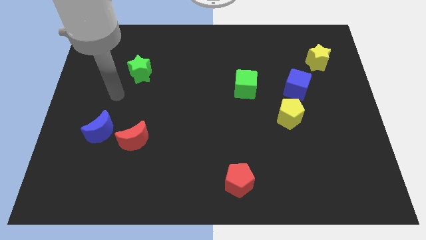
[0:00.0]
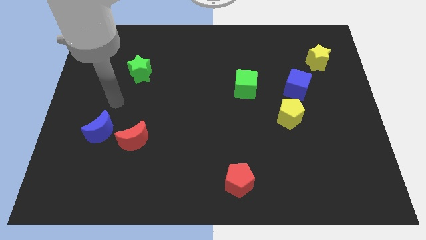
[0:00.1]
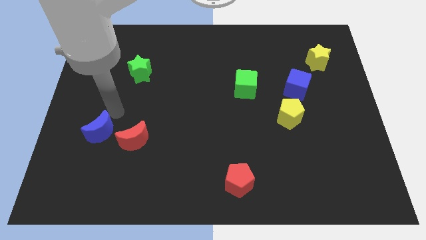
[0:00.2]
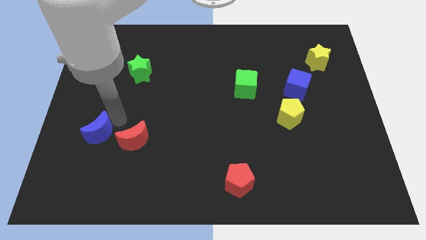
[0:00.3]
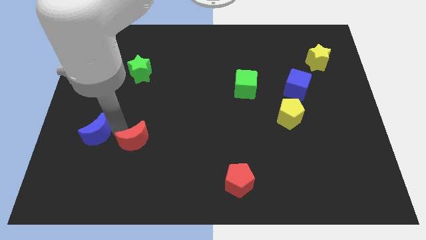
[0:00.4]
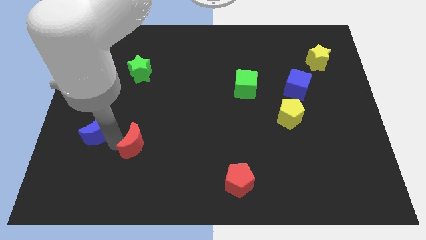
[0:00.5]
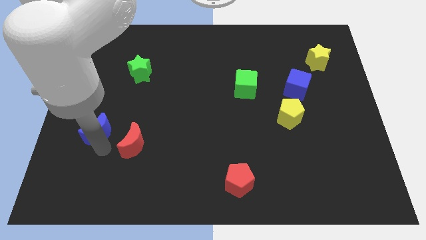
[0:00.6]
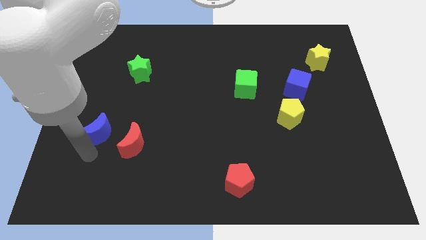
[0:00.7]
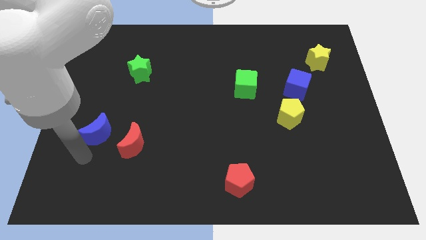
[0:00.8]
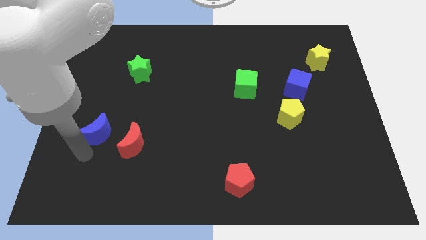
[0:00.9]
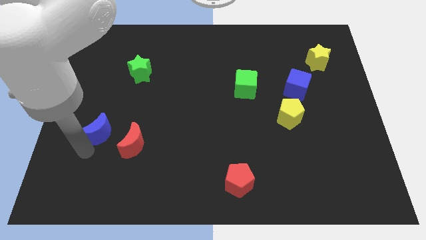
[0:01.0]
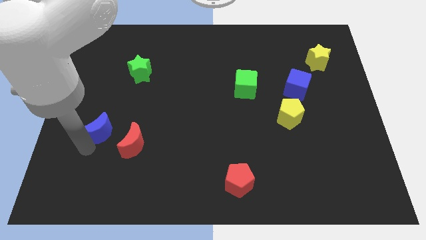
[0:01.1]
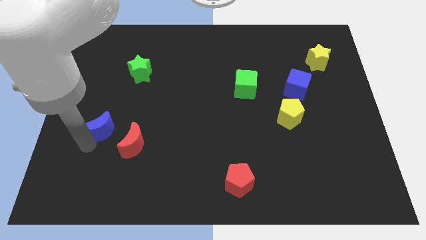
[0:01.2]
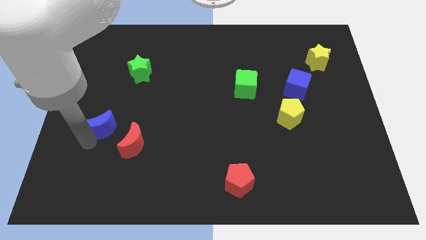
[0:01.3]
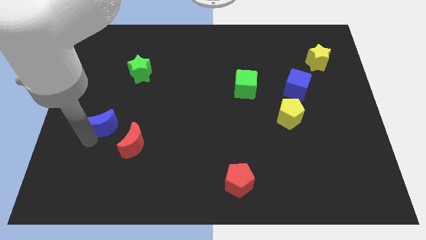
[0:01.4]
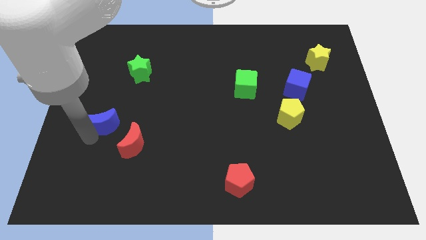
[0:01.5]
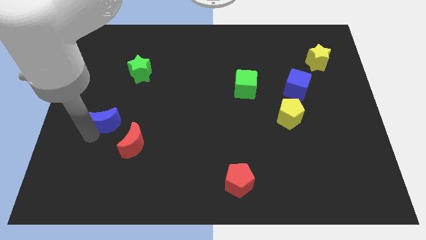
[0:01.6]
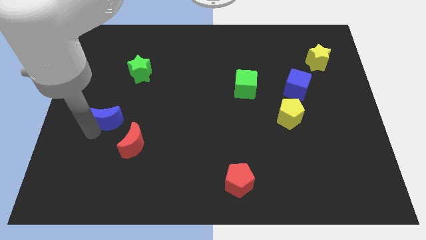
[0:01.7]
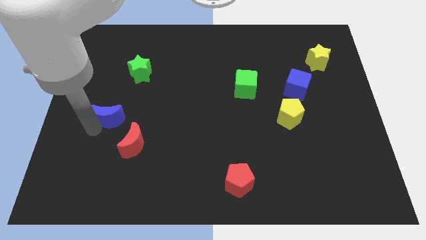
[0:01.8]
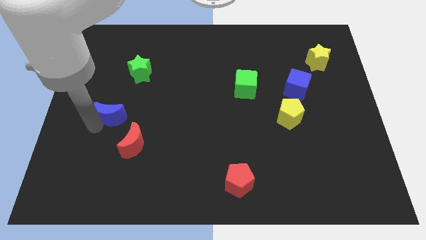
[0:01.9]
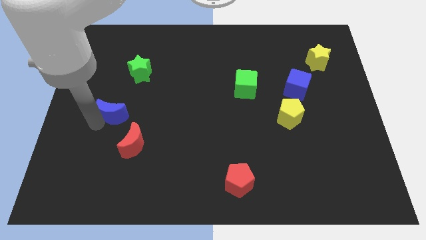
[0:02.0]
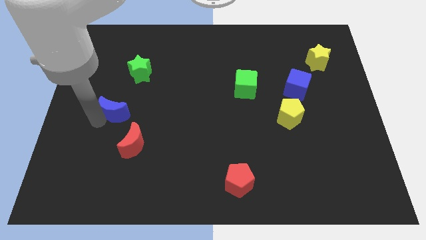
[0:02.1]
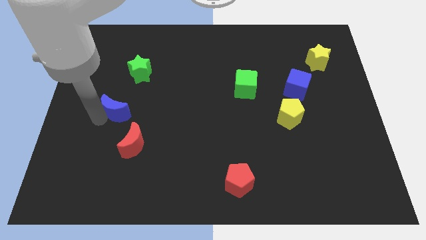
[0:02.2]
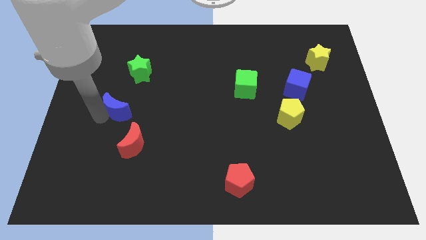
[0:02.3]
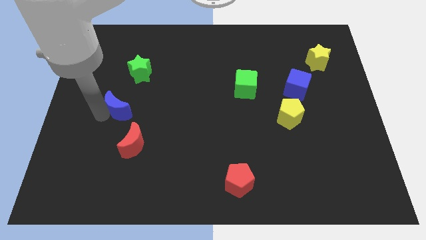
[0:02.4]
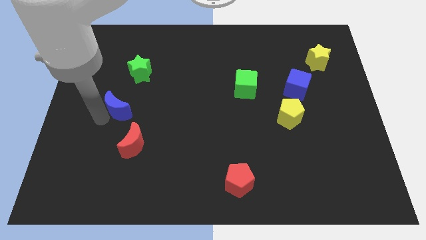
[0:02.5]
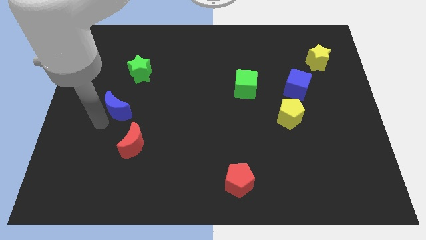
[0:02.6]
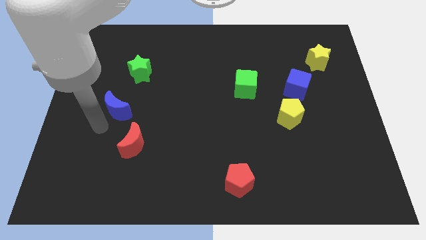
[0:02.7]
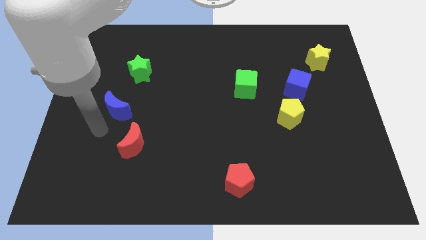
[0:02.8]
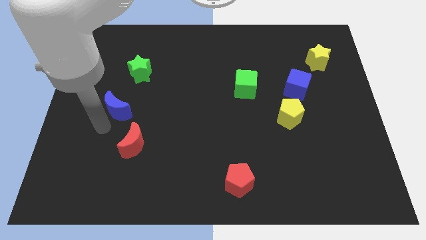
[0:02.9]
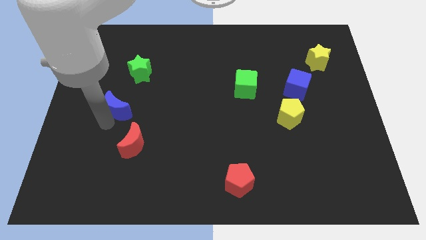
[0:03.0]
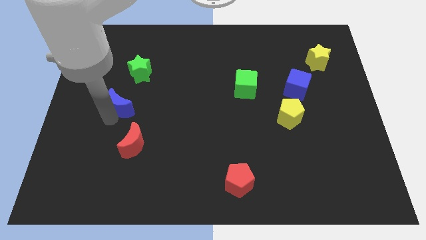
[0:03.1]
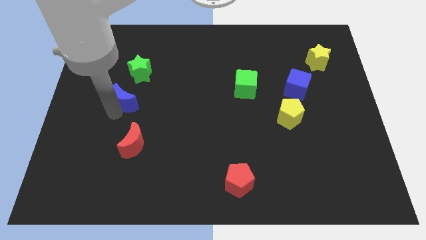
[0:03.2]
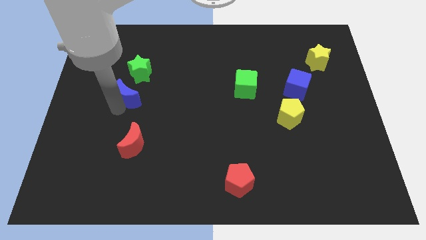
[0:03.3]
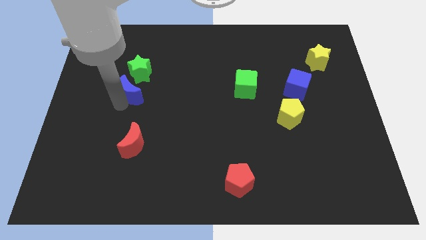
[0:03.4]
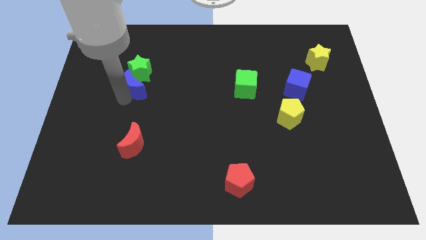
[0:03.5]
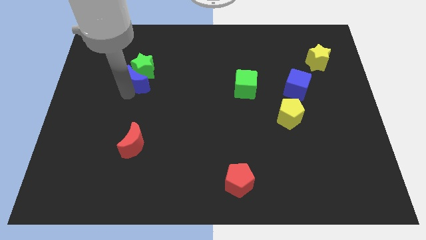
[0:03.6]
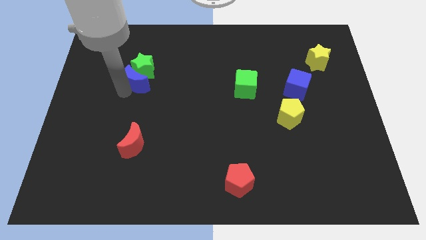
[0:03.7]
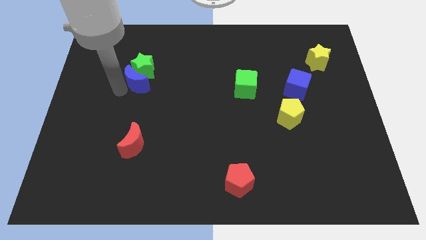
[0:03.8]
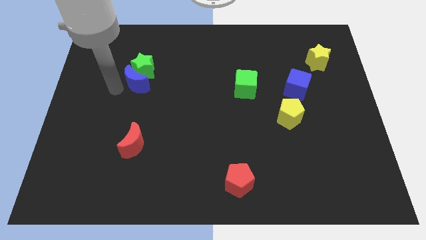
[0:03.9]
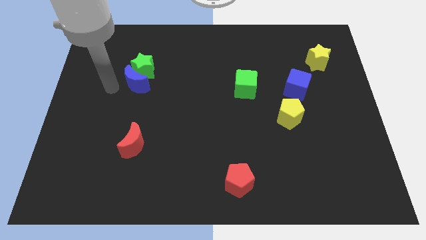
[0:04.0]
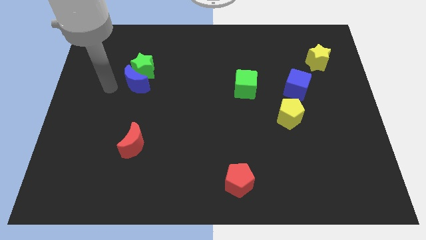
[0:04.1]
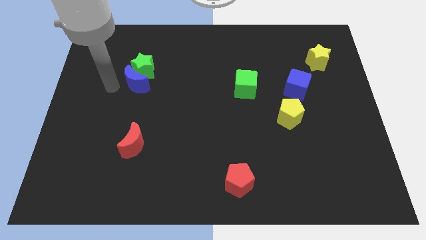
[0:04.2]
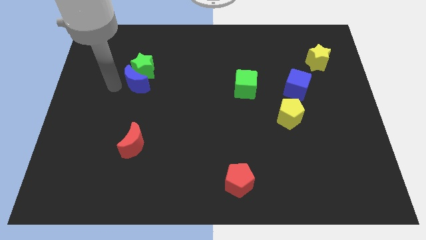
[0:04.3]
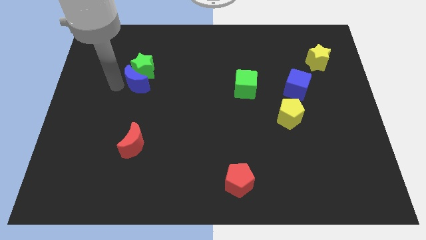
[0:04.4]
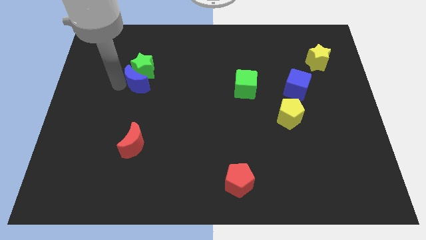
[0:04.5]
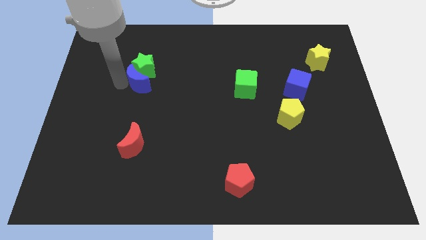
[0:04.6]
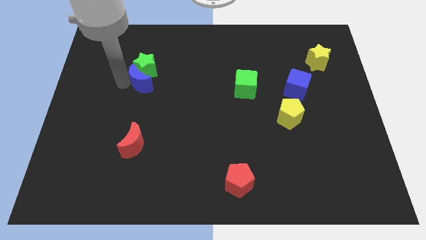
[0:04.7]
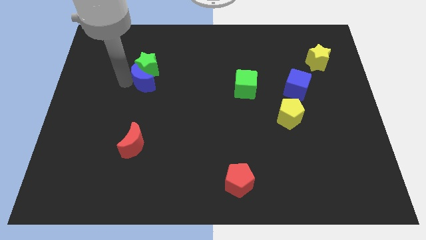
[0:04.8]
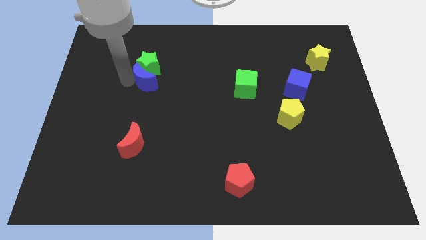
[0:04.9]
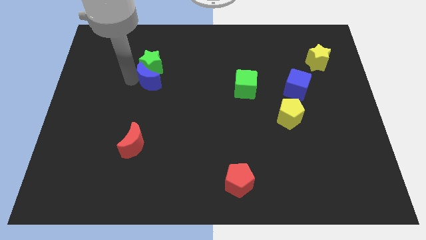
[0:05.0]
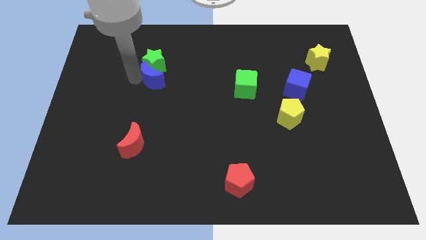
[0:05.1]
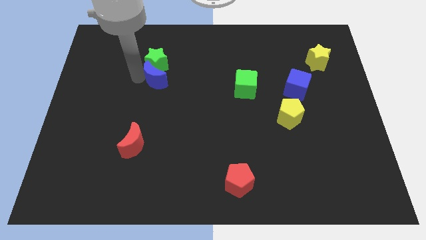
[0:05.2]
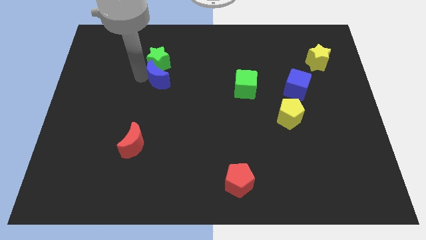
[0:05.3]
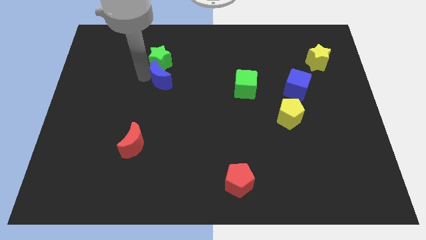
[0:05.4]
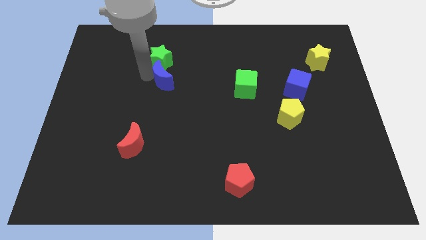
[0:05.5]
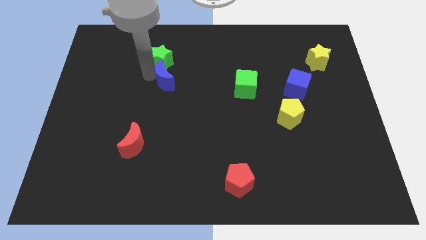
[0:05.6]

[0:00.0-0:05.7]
push the blue moon up and then to the right

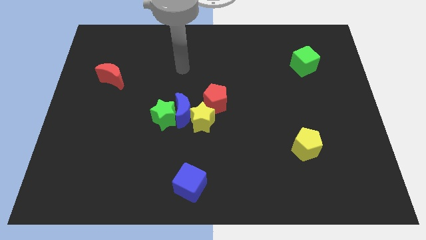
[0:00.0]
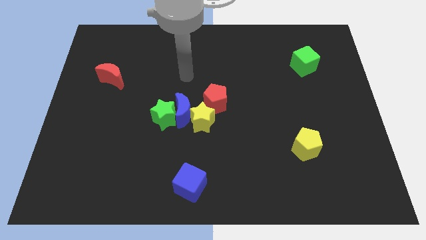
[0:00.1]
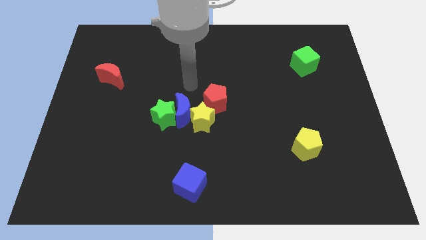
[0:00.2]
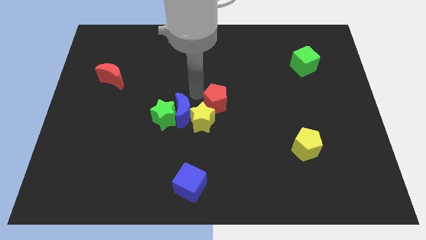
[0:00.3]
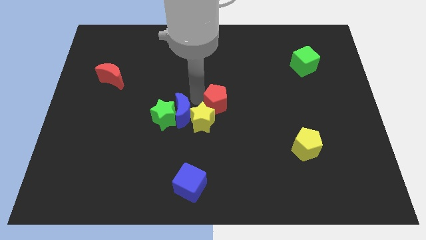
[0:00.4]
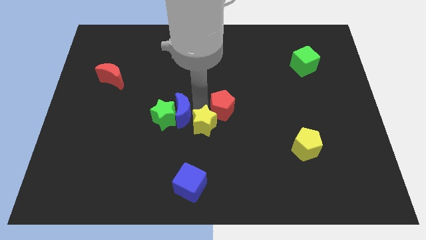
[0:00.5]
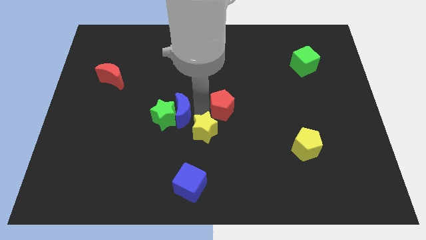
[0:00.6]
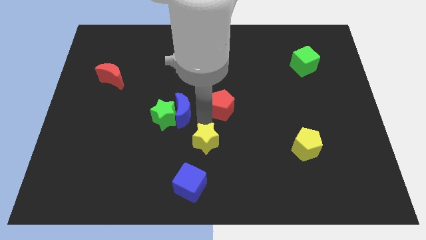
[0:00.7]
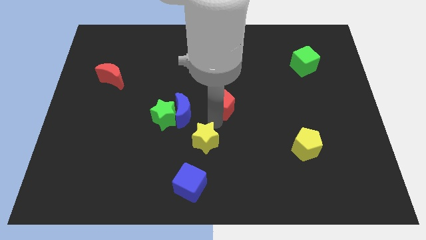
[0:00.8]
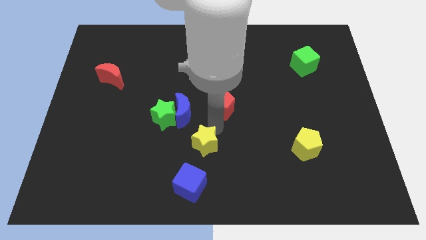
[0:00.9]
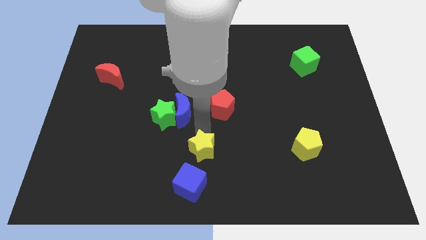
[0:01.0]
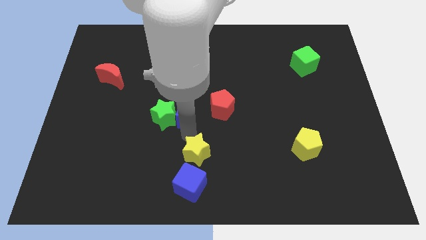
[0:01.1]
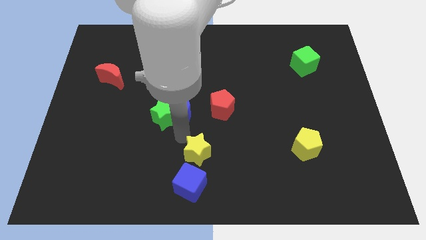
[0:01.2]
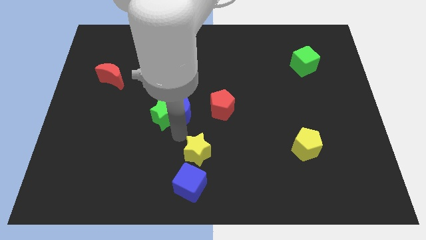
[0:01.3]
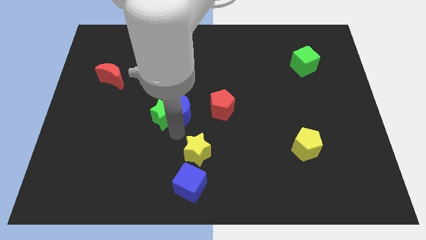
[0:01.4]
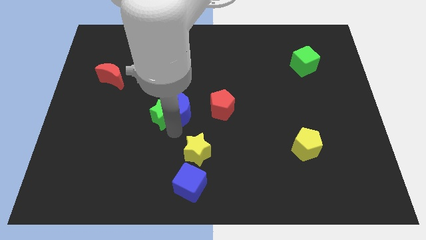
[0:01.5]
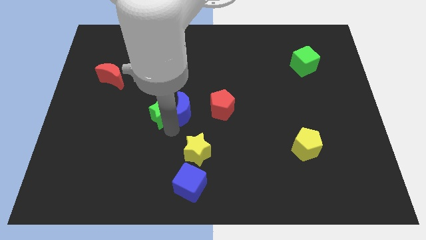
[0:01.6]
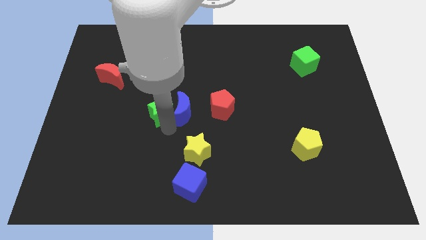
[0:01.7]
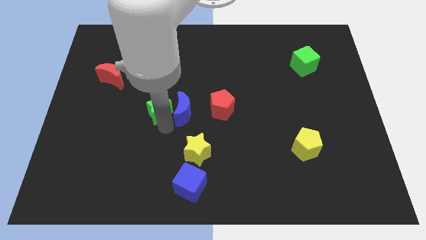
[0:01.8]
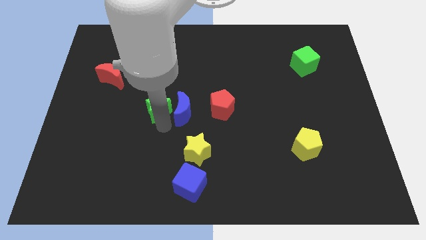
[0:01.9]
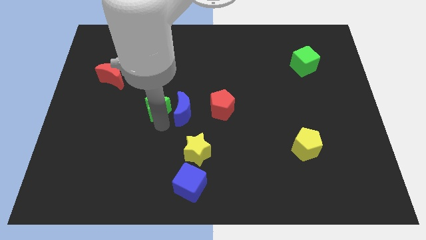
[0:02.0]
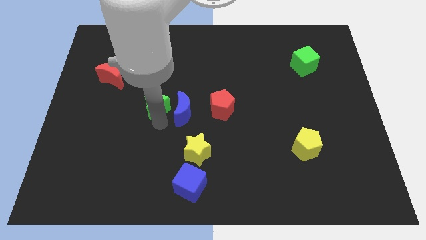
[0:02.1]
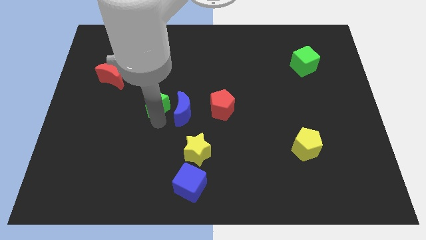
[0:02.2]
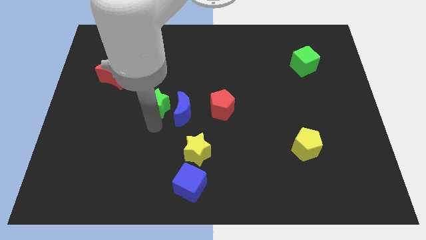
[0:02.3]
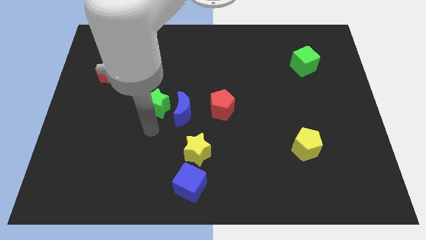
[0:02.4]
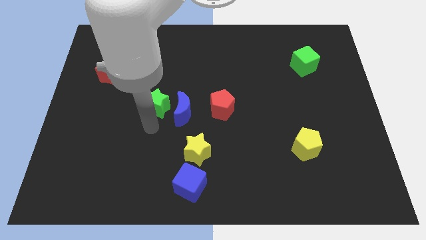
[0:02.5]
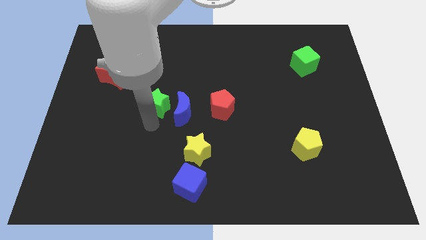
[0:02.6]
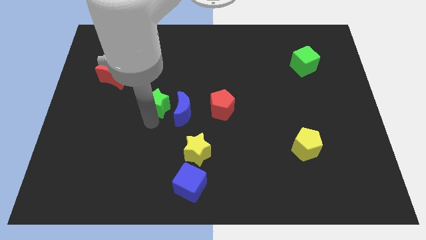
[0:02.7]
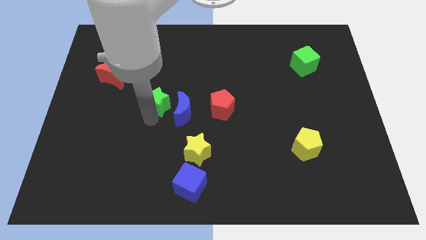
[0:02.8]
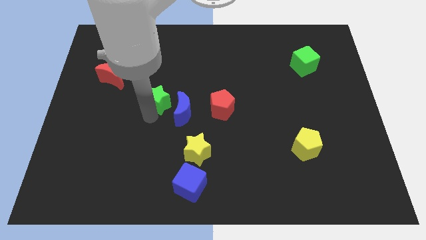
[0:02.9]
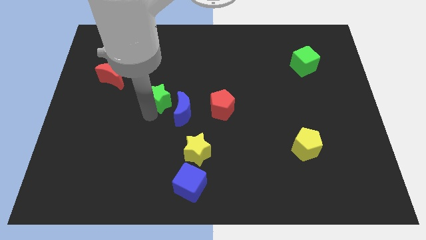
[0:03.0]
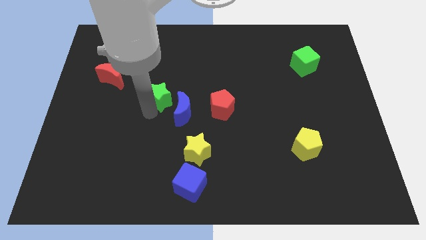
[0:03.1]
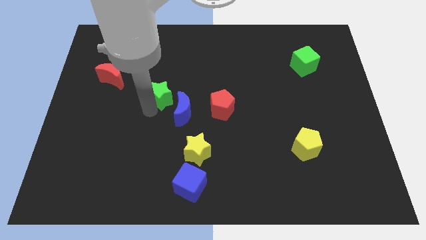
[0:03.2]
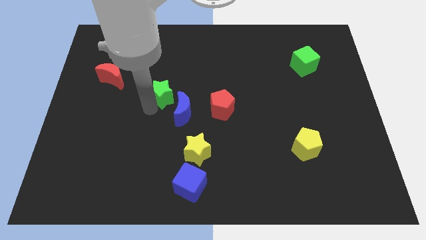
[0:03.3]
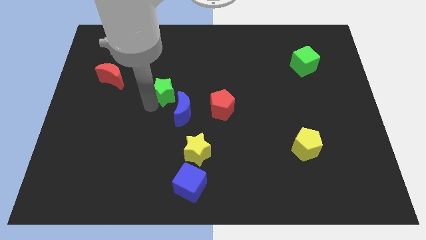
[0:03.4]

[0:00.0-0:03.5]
move the green star a little up
